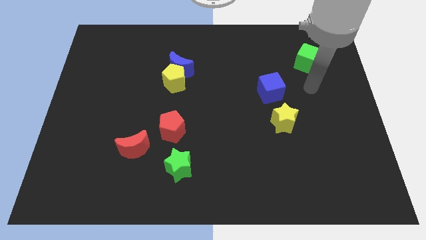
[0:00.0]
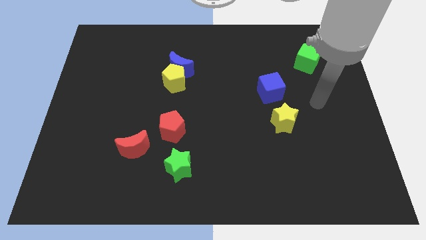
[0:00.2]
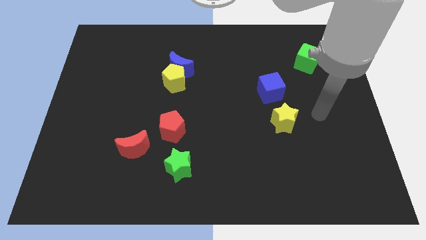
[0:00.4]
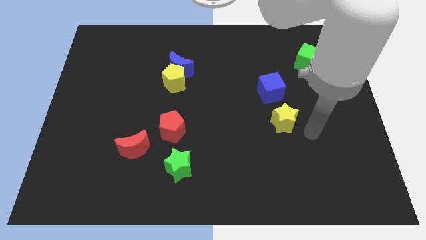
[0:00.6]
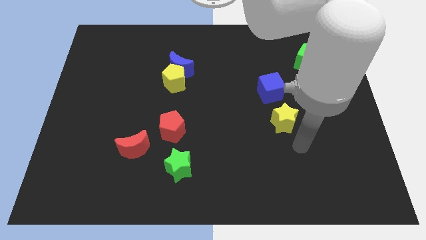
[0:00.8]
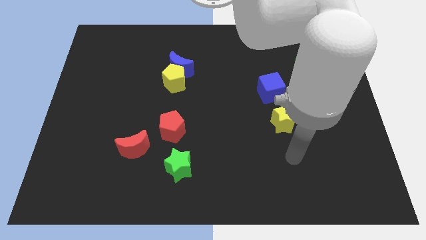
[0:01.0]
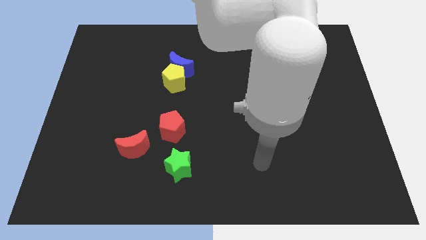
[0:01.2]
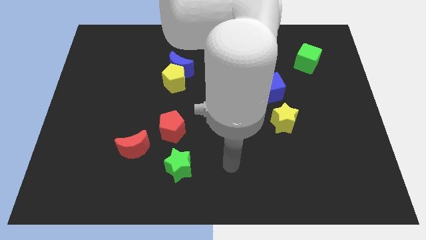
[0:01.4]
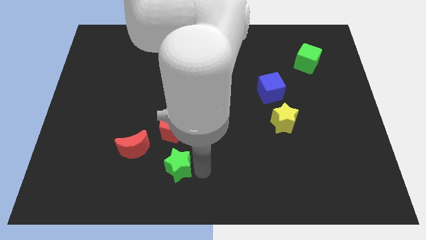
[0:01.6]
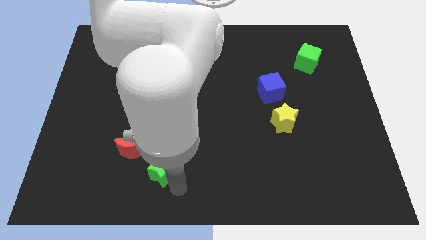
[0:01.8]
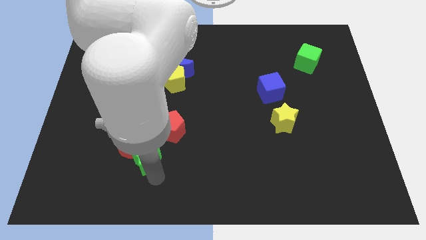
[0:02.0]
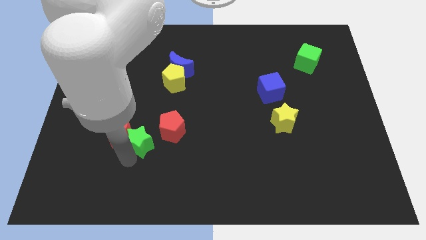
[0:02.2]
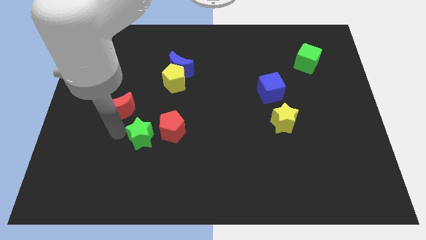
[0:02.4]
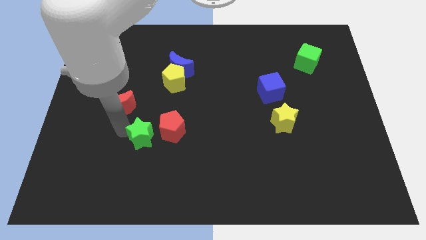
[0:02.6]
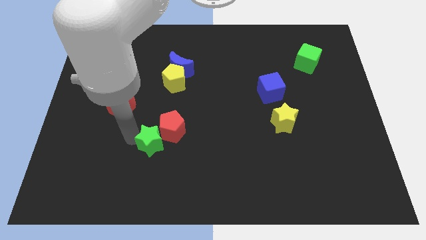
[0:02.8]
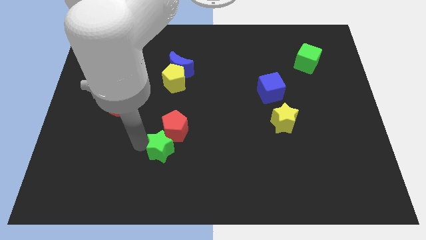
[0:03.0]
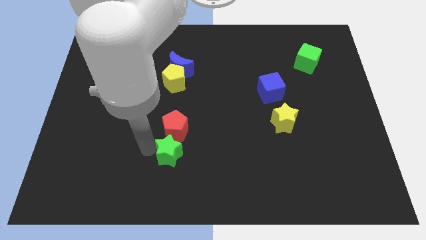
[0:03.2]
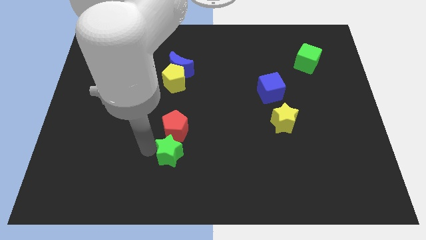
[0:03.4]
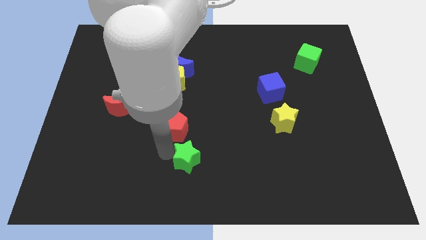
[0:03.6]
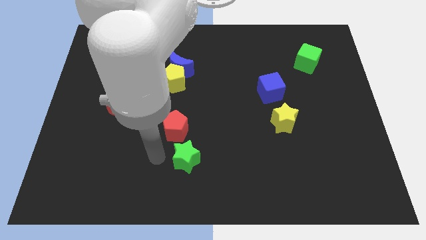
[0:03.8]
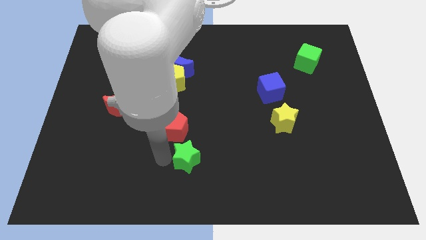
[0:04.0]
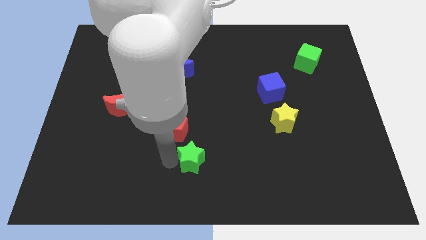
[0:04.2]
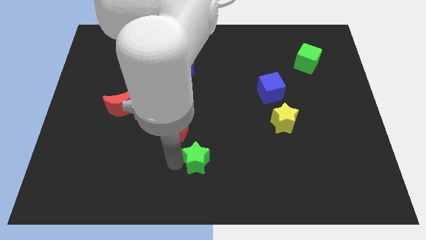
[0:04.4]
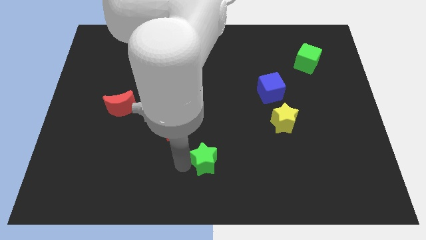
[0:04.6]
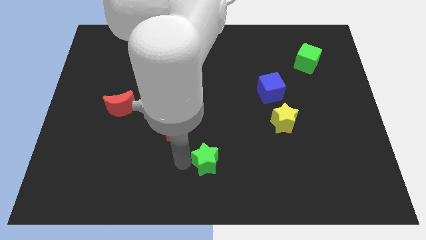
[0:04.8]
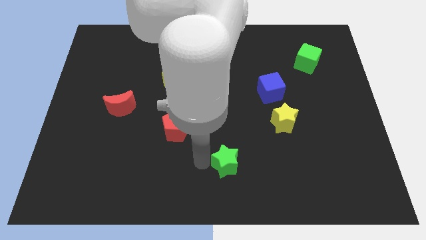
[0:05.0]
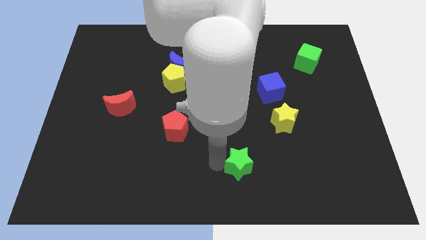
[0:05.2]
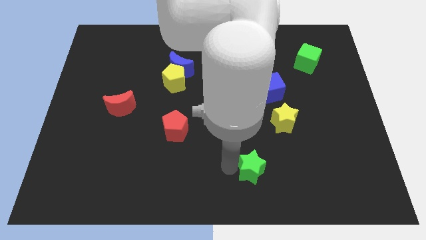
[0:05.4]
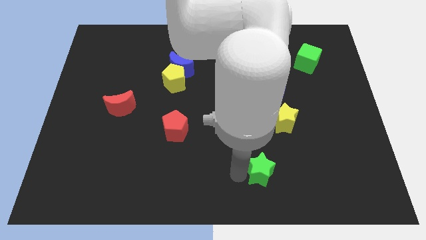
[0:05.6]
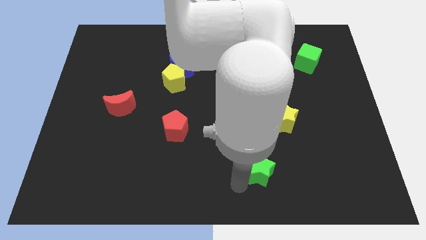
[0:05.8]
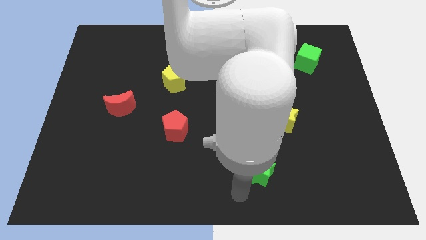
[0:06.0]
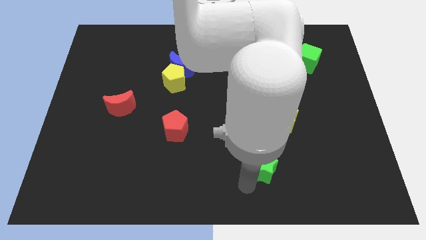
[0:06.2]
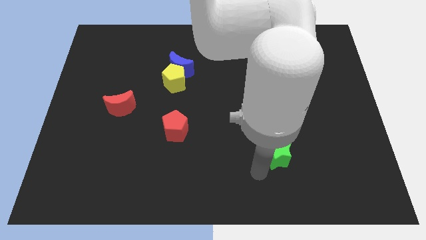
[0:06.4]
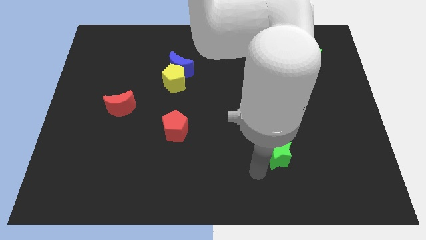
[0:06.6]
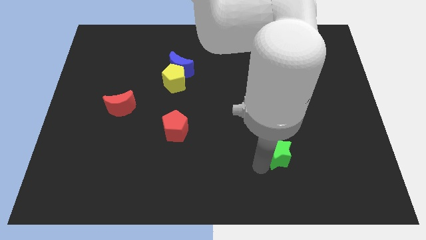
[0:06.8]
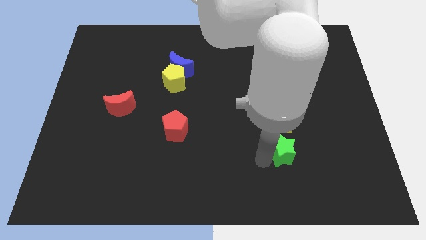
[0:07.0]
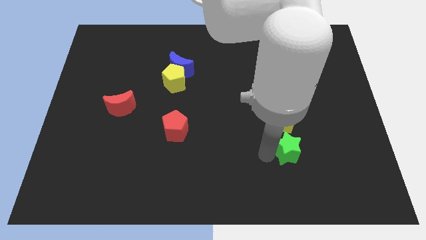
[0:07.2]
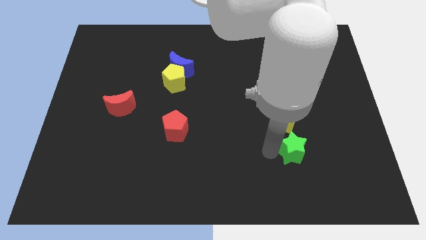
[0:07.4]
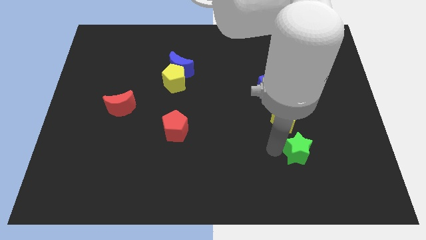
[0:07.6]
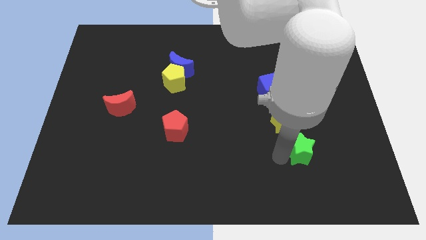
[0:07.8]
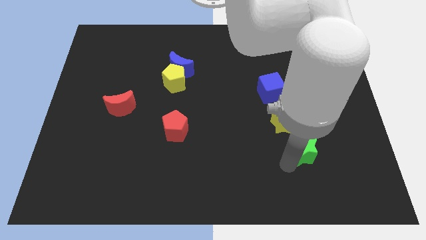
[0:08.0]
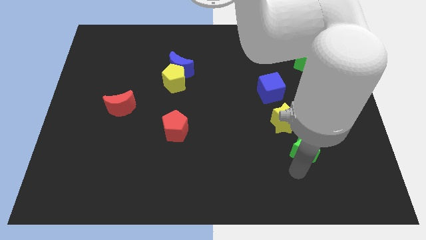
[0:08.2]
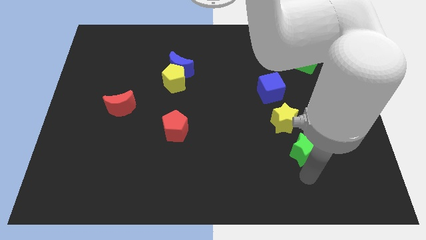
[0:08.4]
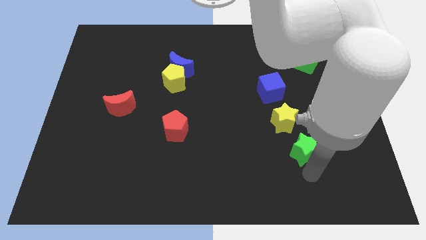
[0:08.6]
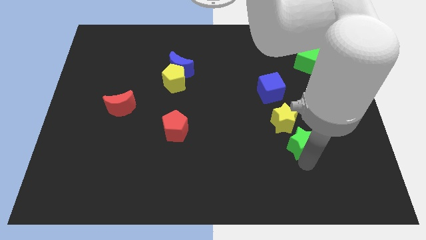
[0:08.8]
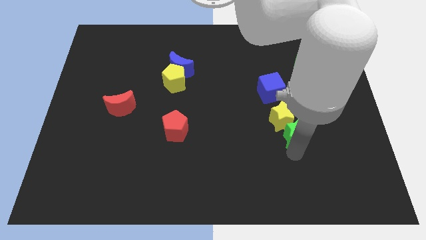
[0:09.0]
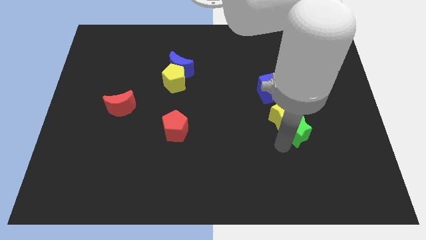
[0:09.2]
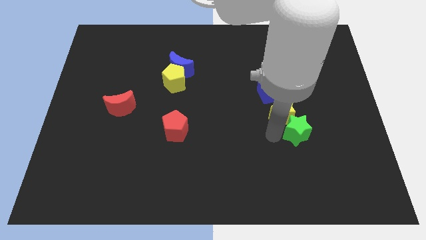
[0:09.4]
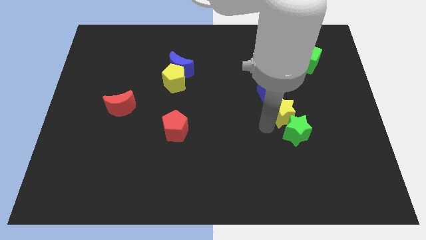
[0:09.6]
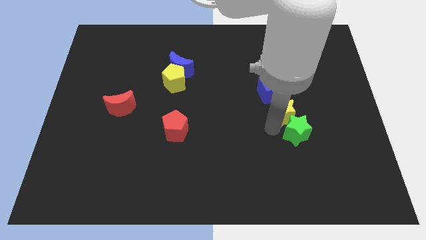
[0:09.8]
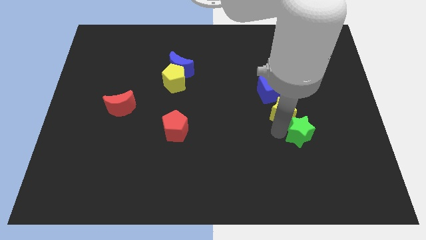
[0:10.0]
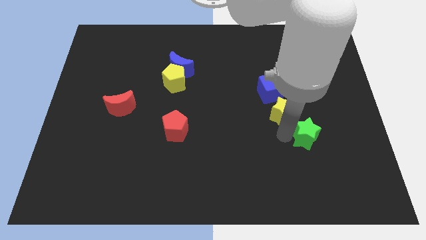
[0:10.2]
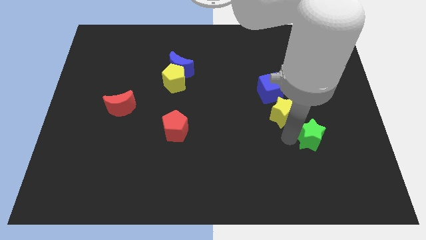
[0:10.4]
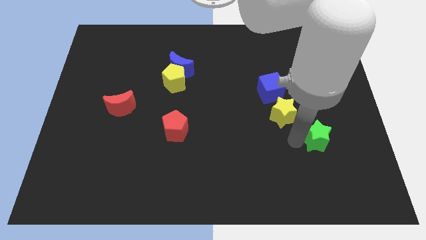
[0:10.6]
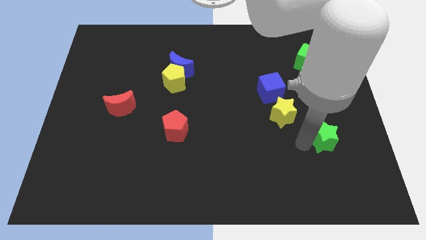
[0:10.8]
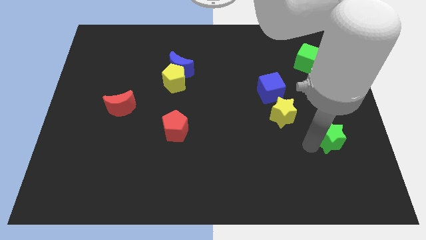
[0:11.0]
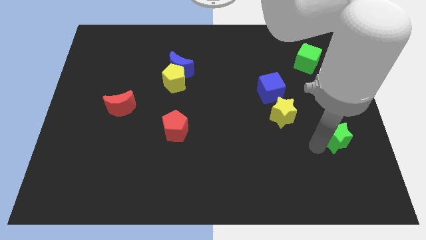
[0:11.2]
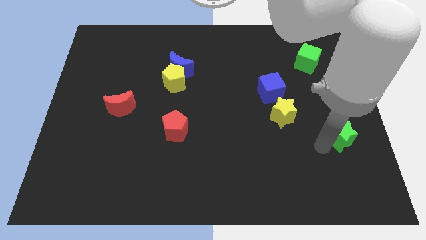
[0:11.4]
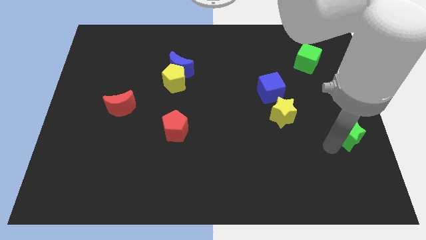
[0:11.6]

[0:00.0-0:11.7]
slide the green star to the right side of the board

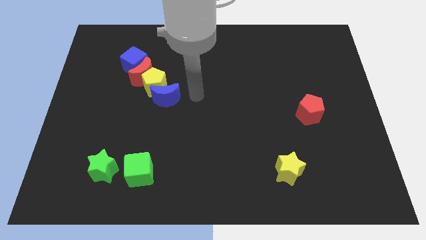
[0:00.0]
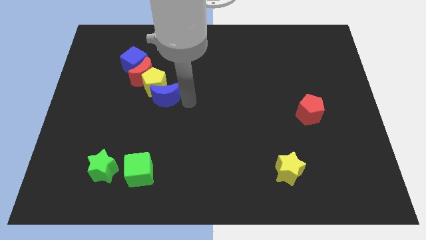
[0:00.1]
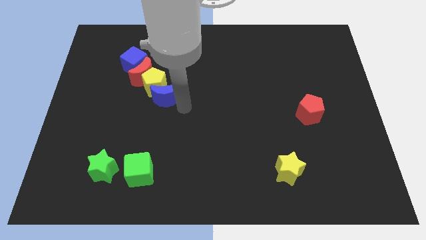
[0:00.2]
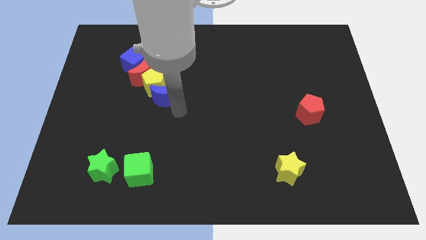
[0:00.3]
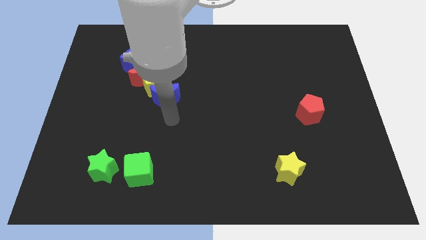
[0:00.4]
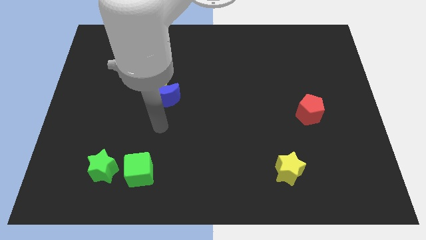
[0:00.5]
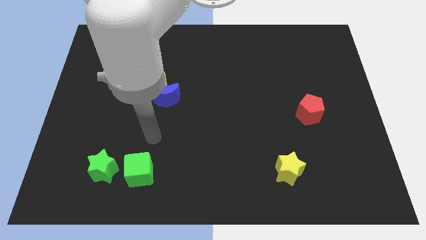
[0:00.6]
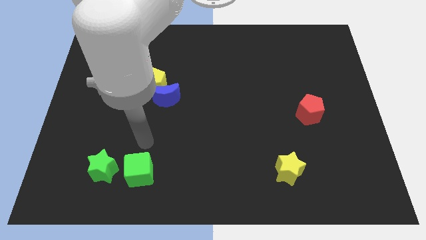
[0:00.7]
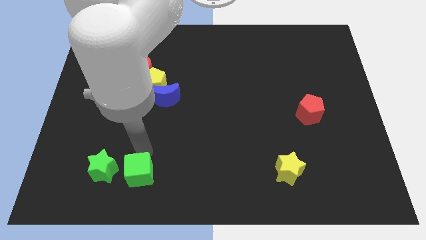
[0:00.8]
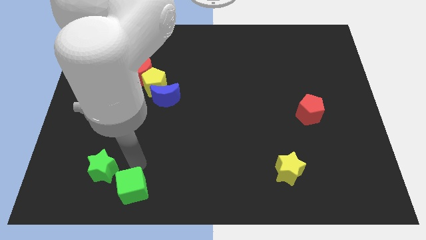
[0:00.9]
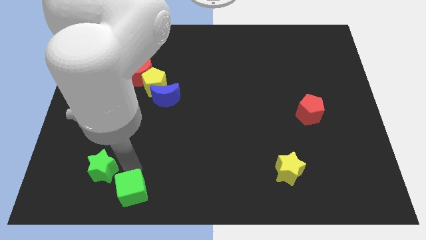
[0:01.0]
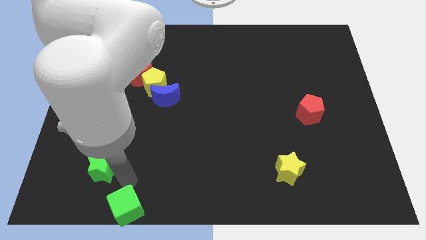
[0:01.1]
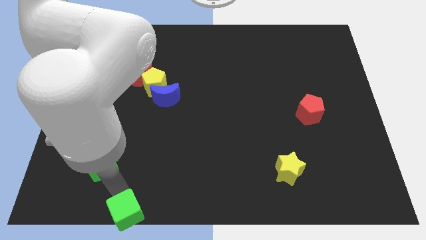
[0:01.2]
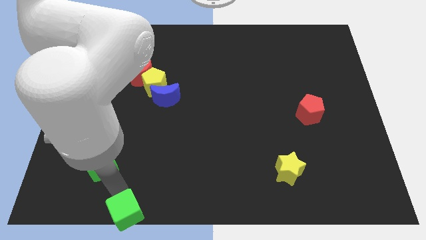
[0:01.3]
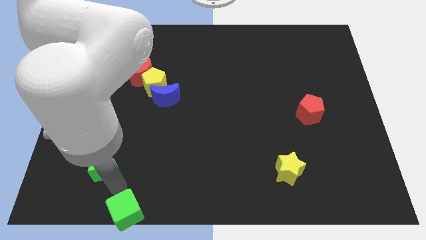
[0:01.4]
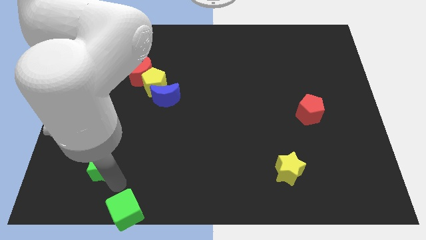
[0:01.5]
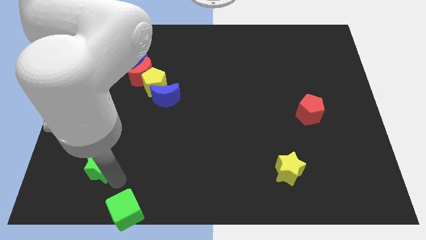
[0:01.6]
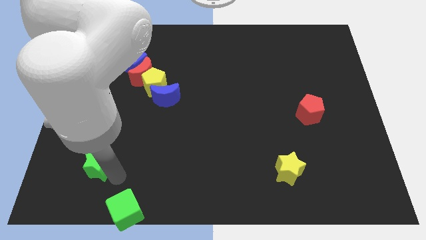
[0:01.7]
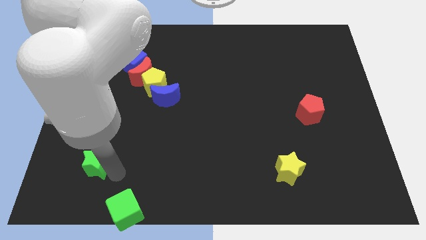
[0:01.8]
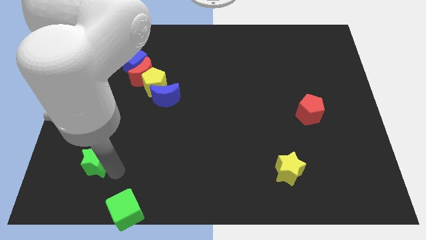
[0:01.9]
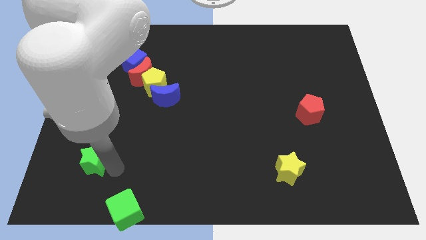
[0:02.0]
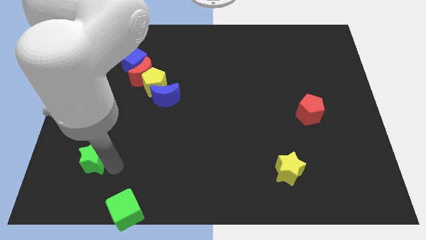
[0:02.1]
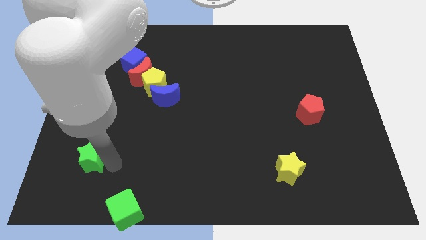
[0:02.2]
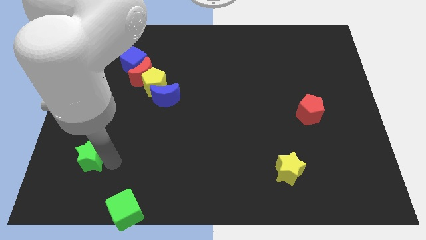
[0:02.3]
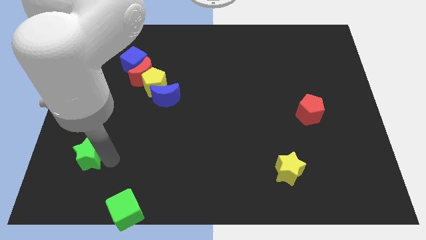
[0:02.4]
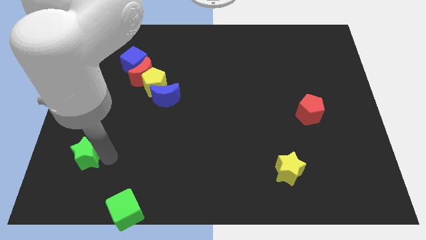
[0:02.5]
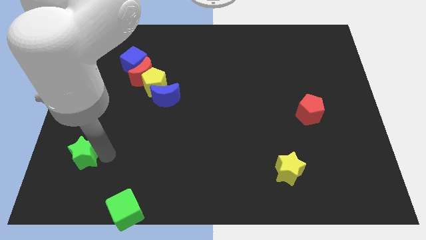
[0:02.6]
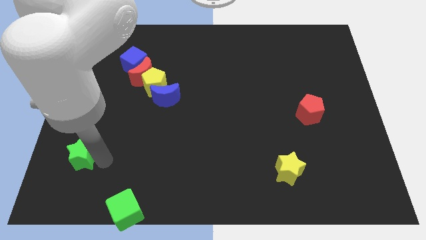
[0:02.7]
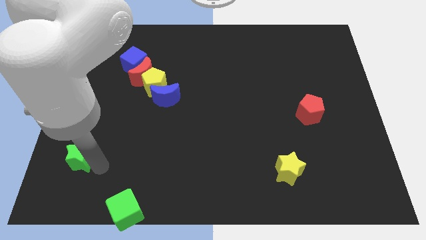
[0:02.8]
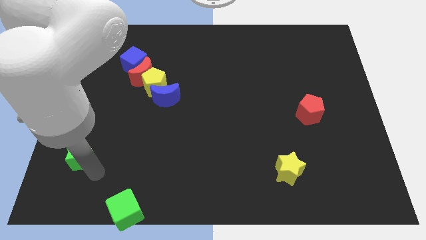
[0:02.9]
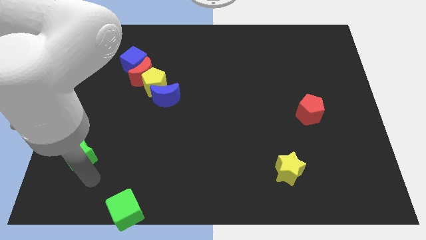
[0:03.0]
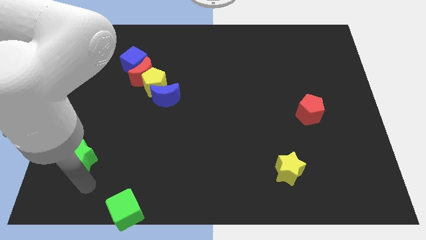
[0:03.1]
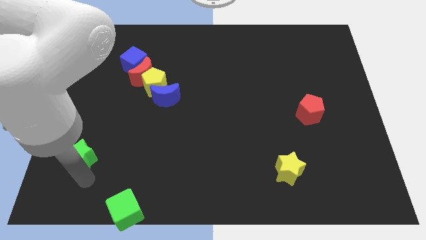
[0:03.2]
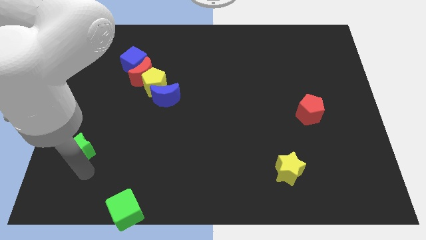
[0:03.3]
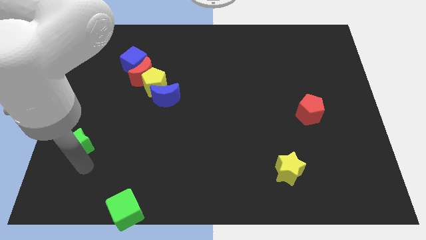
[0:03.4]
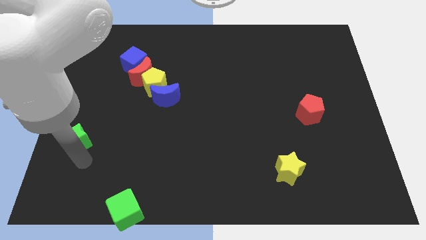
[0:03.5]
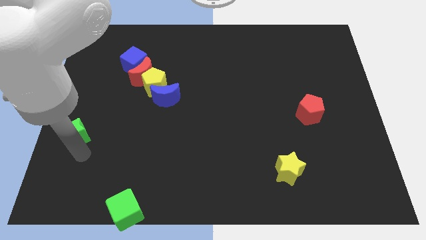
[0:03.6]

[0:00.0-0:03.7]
push the green star to the center left
